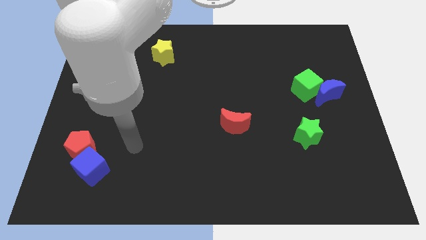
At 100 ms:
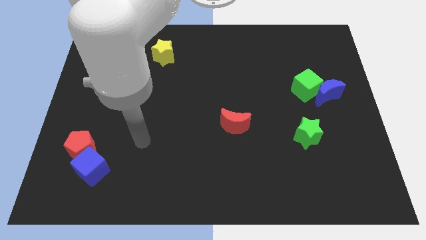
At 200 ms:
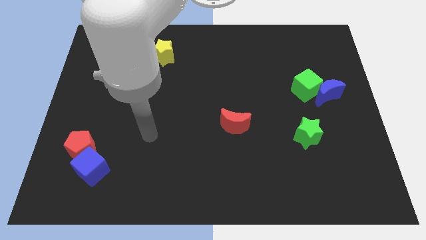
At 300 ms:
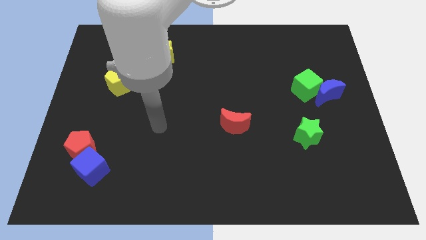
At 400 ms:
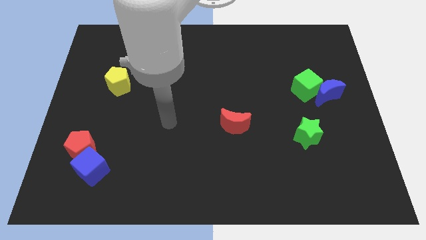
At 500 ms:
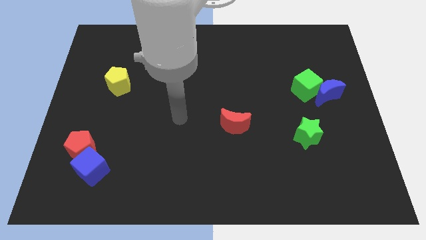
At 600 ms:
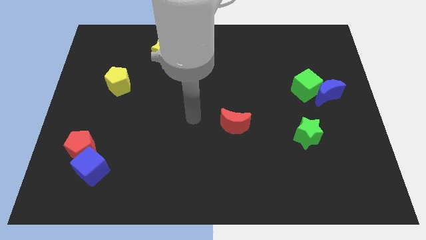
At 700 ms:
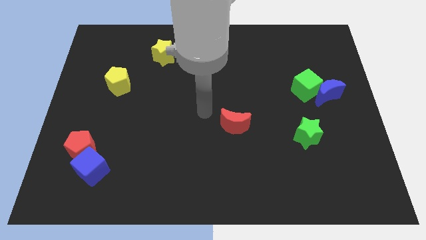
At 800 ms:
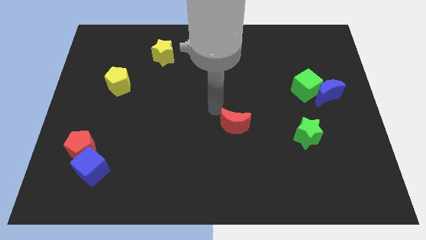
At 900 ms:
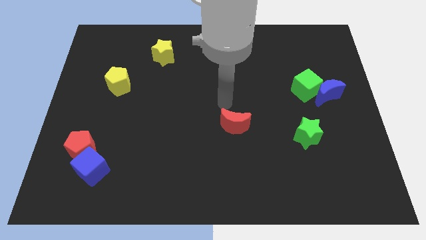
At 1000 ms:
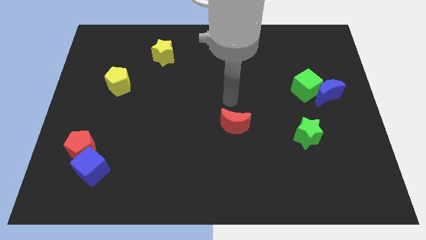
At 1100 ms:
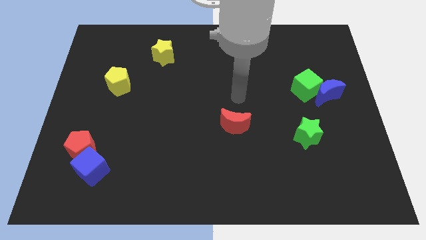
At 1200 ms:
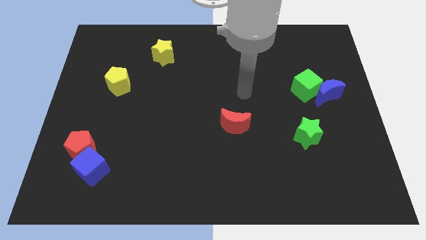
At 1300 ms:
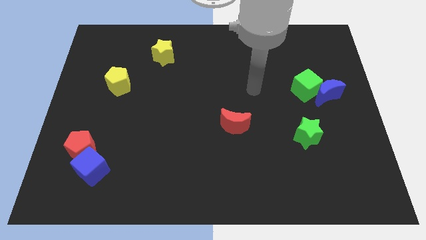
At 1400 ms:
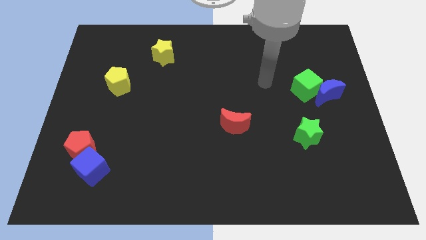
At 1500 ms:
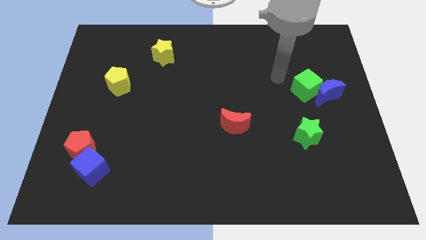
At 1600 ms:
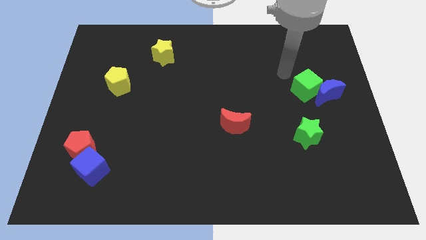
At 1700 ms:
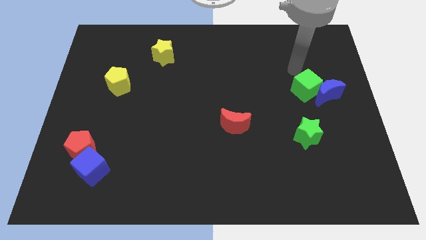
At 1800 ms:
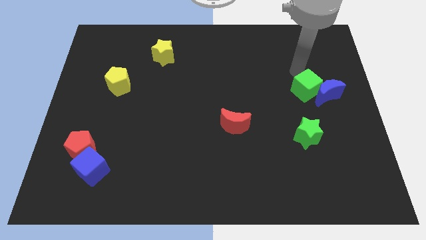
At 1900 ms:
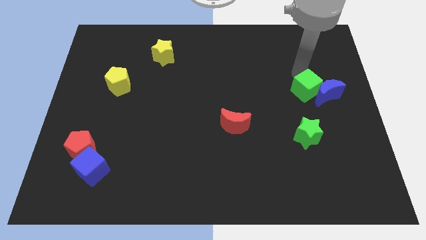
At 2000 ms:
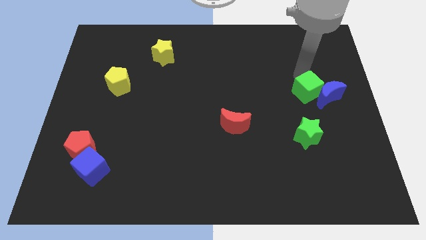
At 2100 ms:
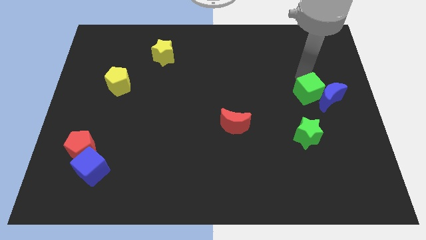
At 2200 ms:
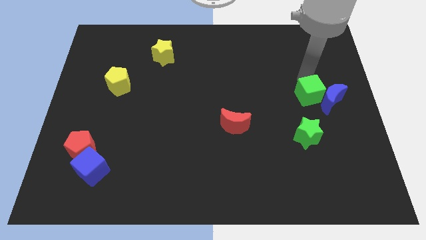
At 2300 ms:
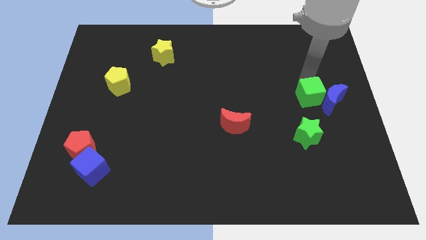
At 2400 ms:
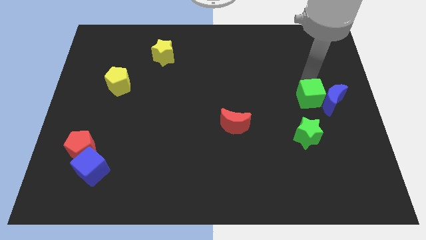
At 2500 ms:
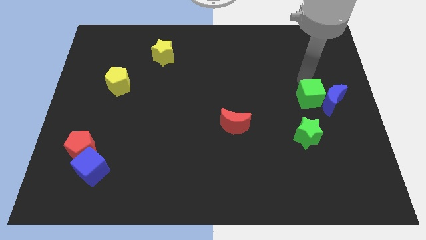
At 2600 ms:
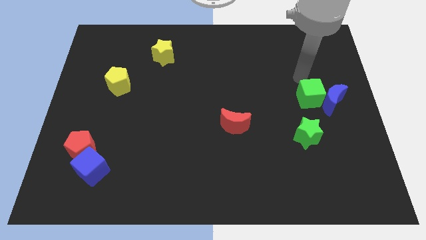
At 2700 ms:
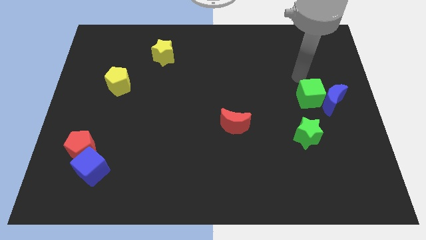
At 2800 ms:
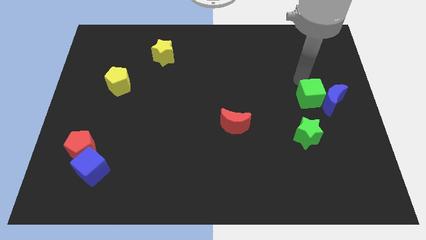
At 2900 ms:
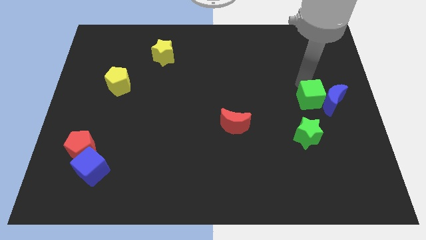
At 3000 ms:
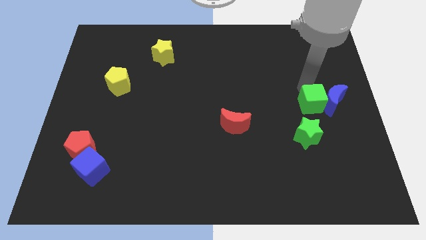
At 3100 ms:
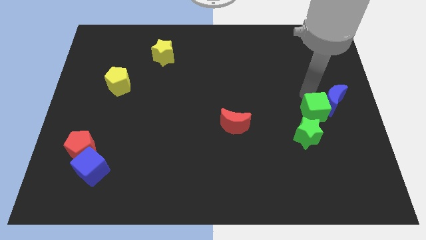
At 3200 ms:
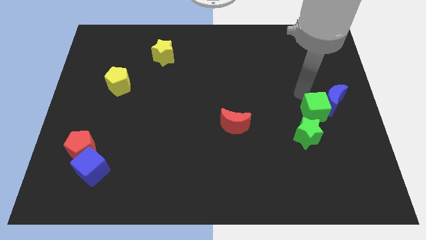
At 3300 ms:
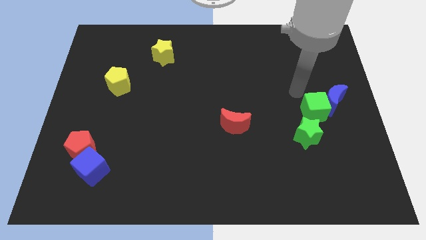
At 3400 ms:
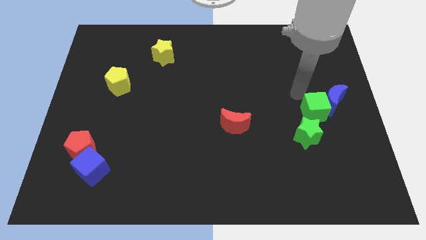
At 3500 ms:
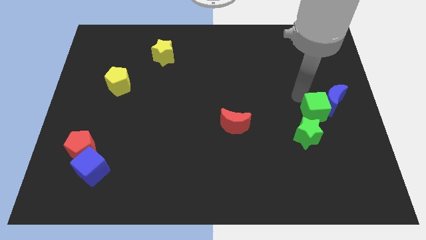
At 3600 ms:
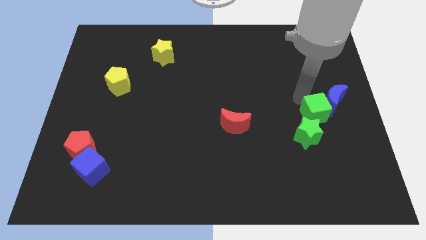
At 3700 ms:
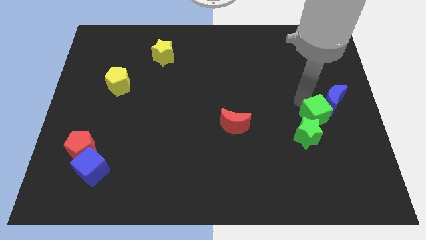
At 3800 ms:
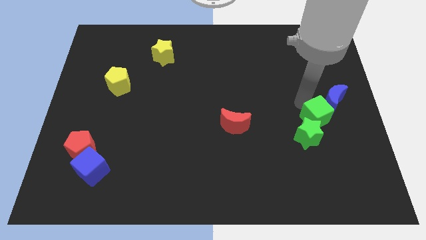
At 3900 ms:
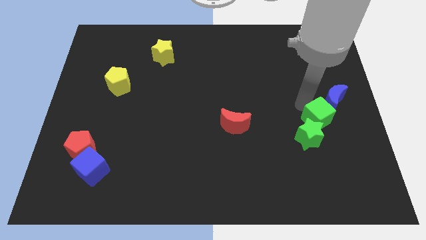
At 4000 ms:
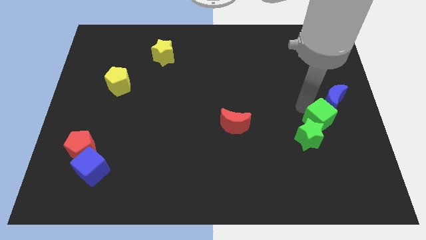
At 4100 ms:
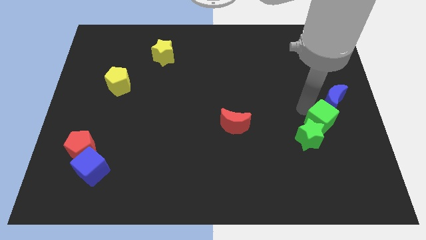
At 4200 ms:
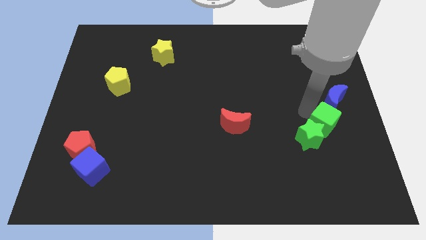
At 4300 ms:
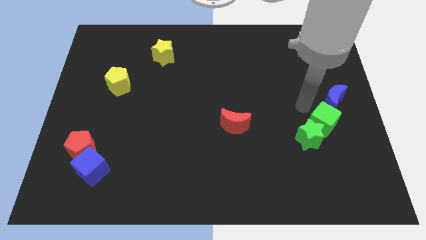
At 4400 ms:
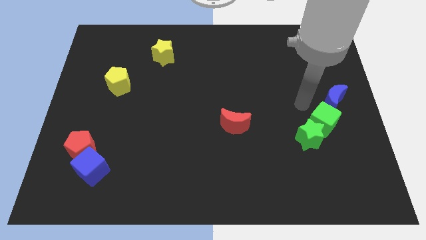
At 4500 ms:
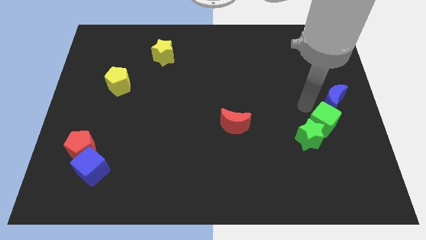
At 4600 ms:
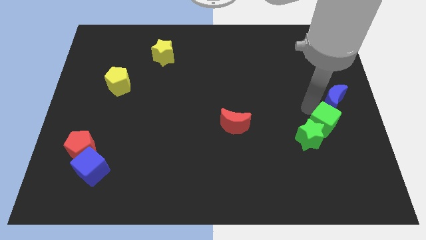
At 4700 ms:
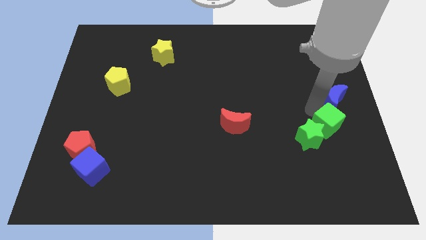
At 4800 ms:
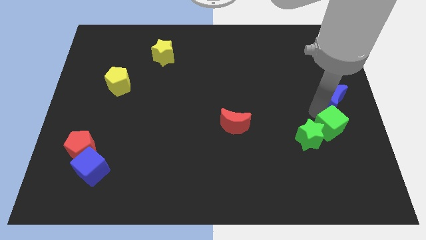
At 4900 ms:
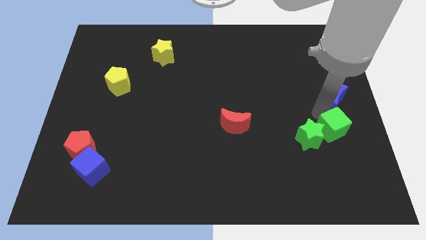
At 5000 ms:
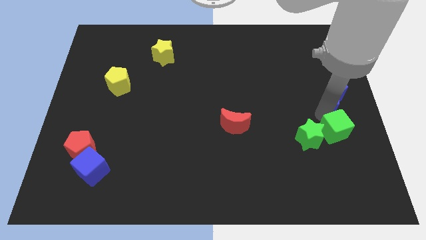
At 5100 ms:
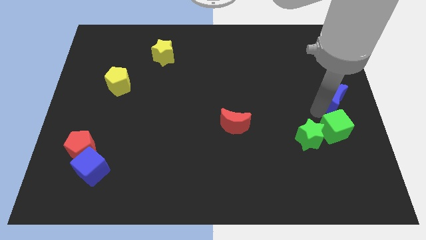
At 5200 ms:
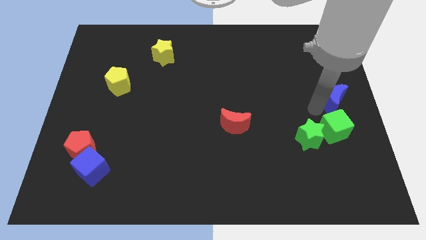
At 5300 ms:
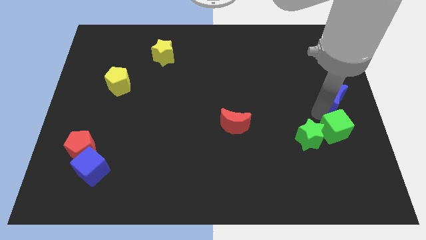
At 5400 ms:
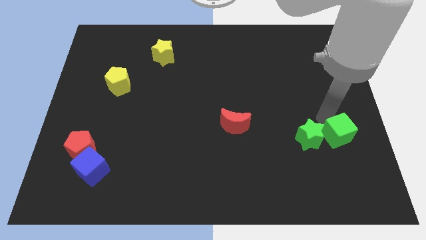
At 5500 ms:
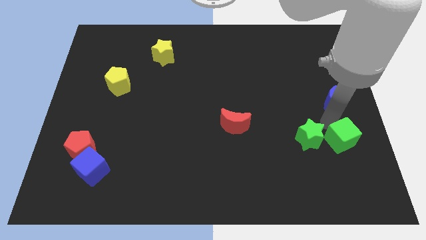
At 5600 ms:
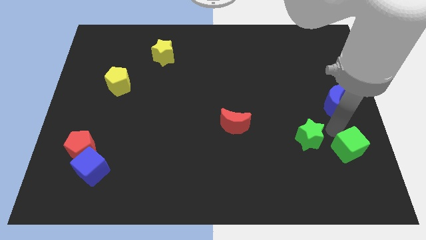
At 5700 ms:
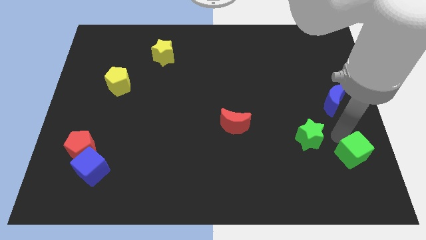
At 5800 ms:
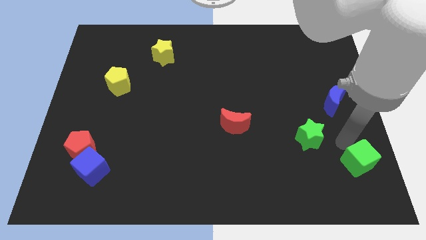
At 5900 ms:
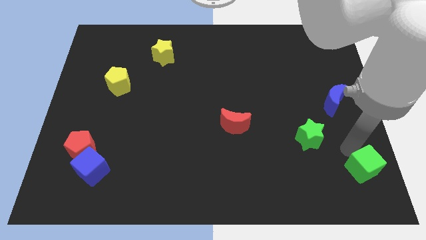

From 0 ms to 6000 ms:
put the green cube to the bottom right
